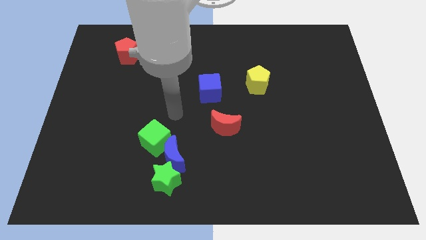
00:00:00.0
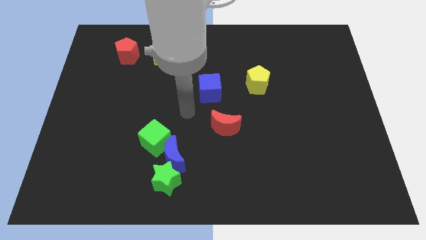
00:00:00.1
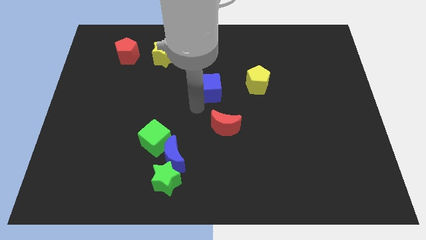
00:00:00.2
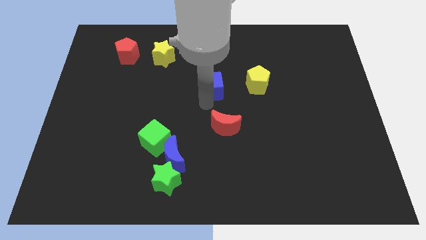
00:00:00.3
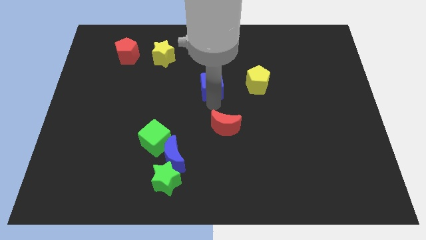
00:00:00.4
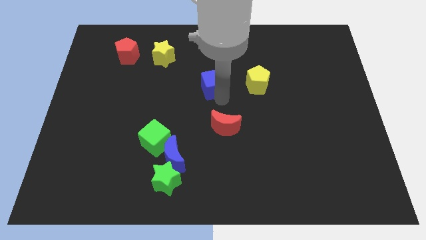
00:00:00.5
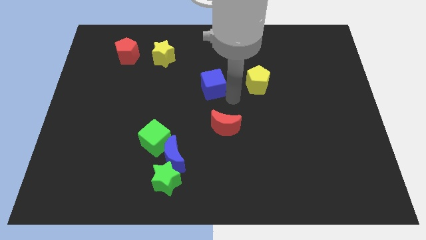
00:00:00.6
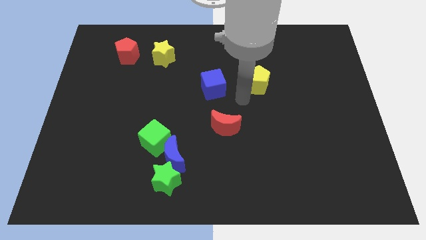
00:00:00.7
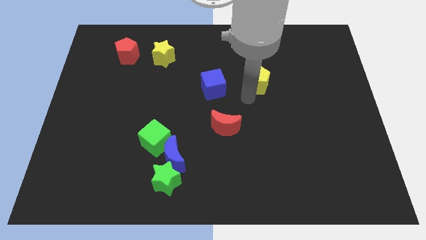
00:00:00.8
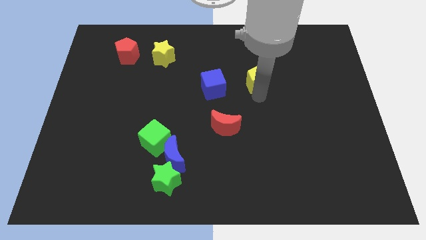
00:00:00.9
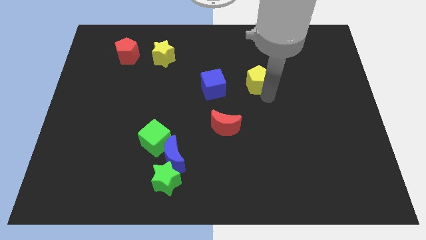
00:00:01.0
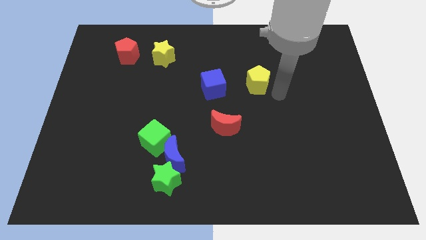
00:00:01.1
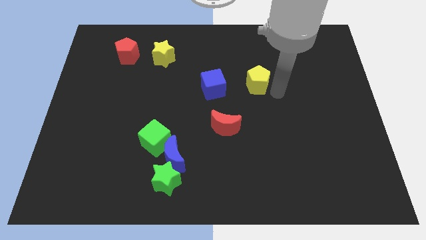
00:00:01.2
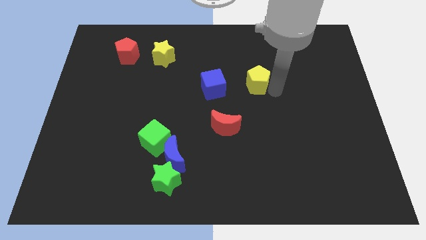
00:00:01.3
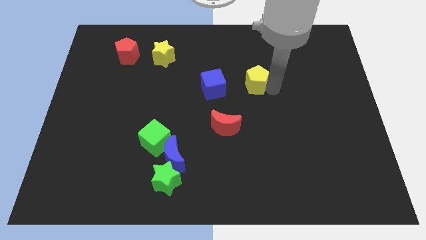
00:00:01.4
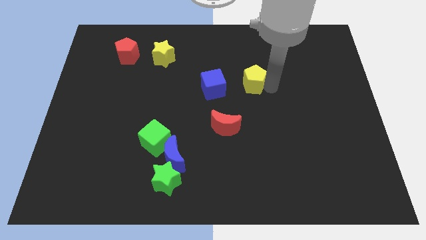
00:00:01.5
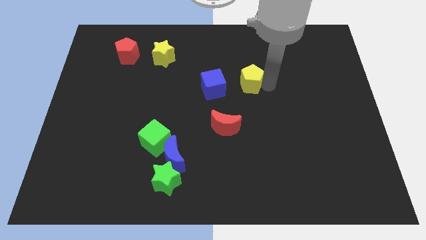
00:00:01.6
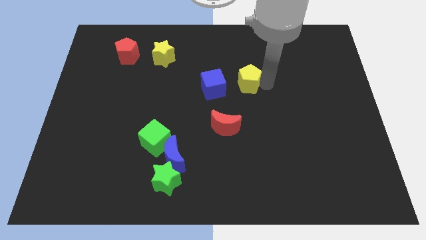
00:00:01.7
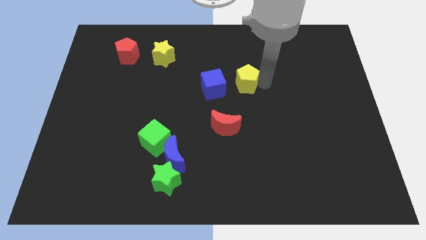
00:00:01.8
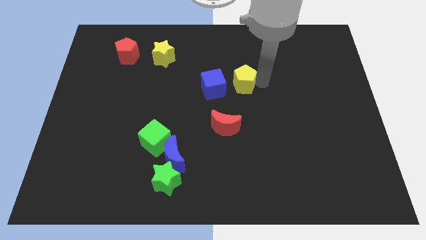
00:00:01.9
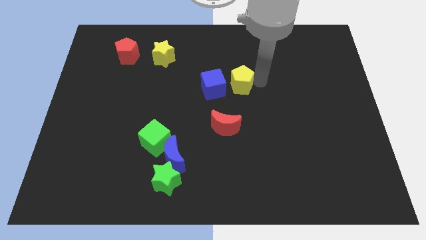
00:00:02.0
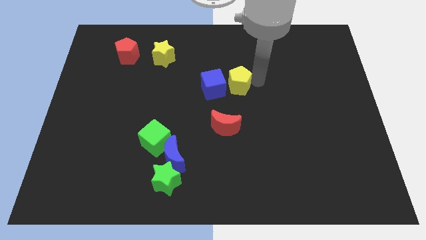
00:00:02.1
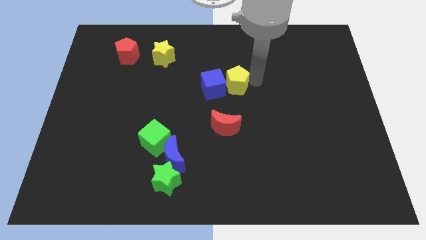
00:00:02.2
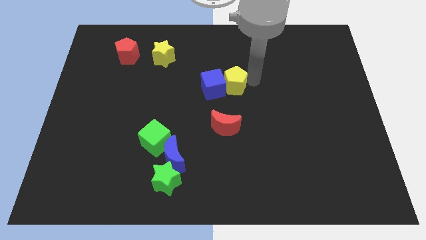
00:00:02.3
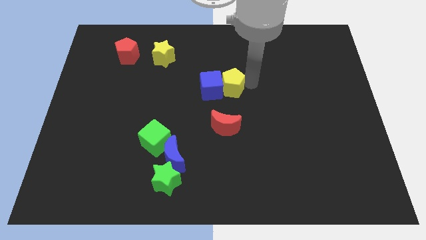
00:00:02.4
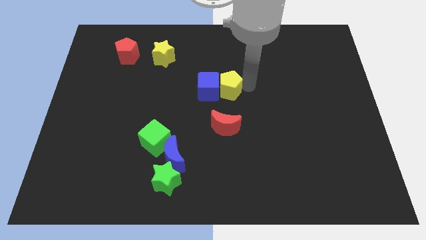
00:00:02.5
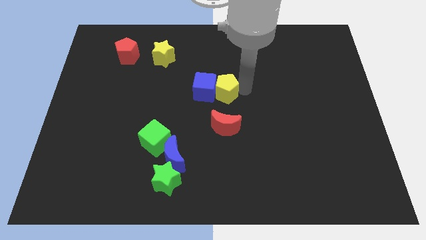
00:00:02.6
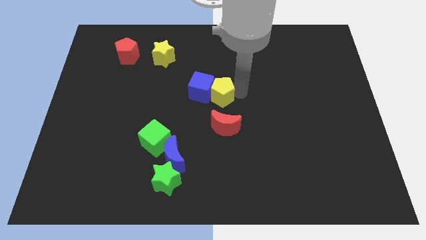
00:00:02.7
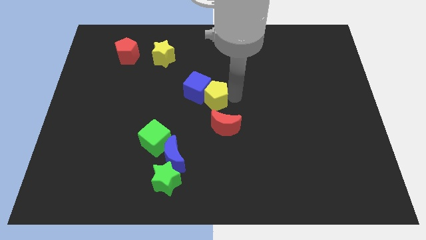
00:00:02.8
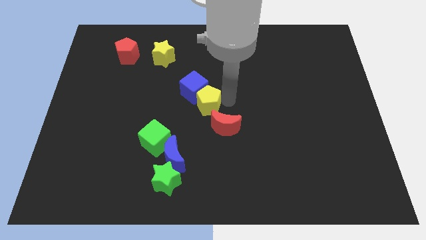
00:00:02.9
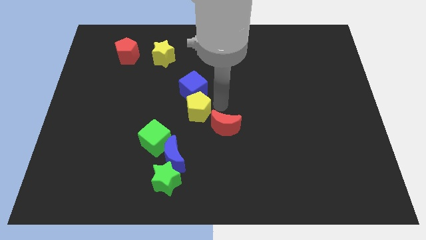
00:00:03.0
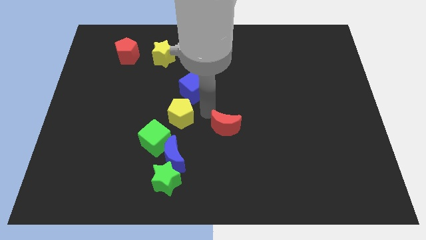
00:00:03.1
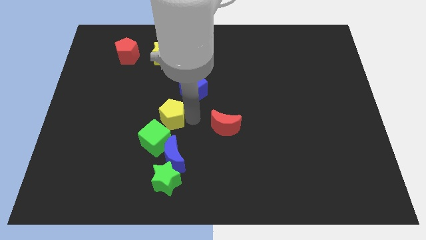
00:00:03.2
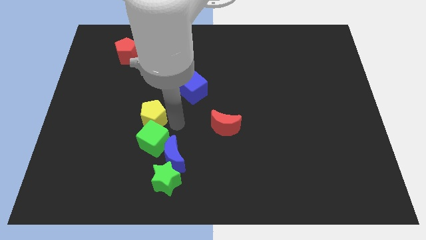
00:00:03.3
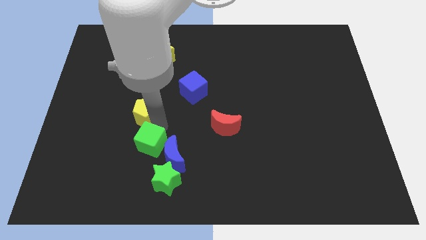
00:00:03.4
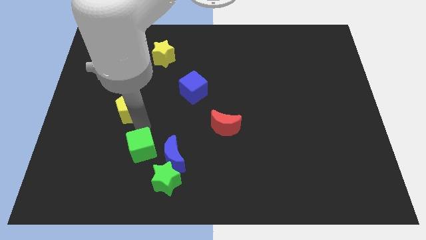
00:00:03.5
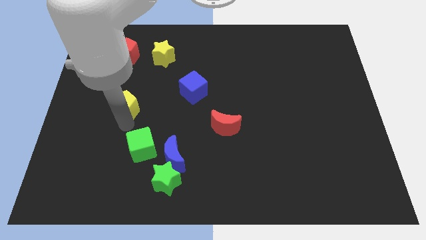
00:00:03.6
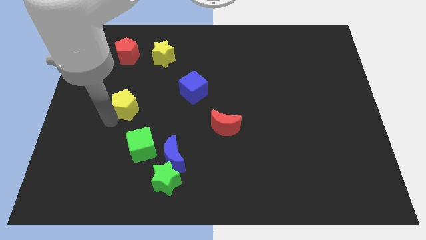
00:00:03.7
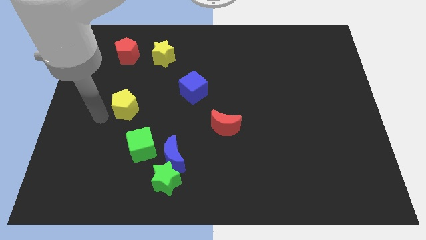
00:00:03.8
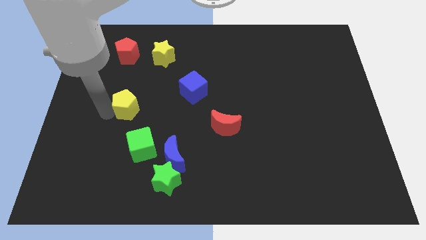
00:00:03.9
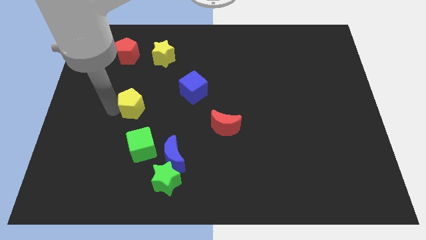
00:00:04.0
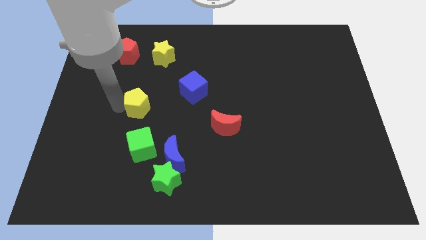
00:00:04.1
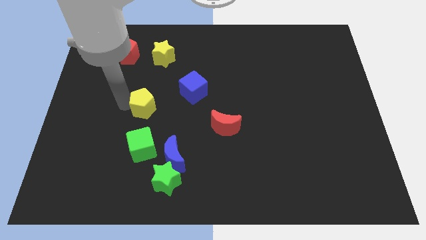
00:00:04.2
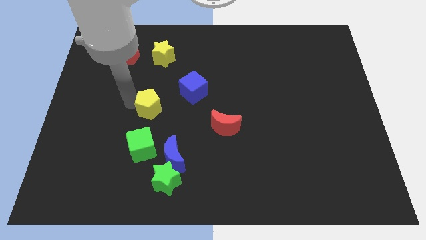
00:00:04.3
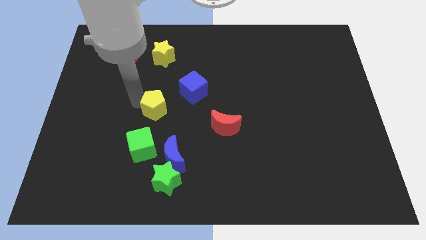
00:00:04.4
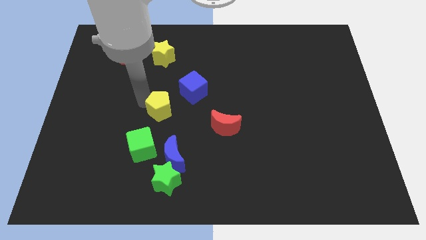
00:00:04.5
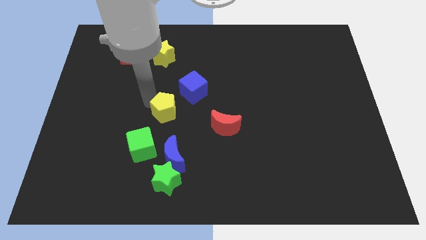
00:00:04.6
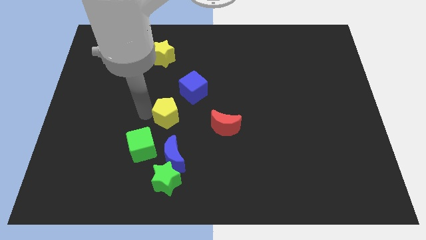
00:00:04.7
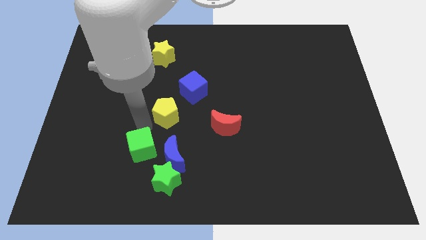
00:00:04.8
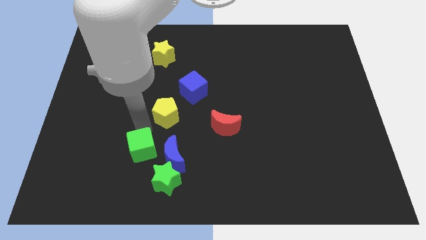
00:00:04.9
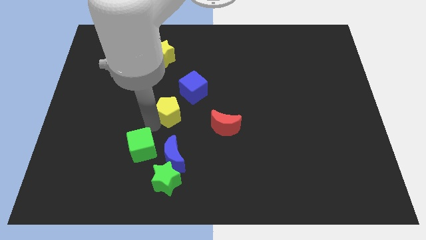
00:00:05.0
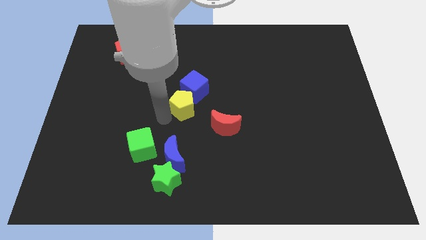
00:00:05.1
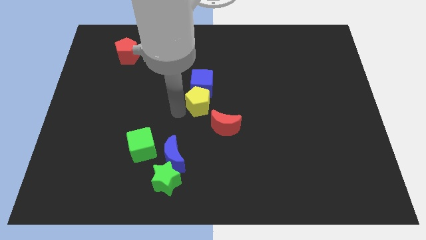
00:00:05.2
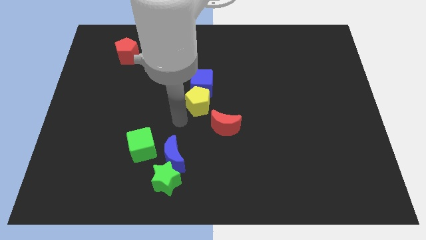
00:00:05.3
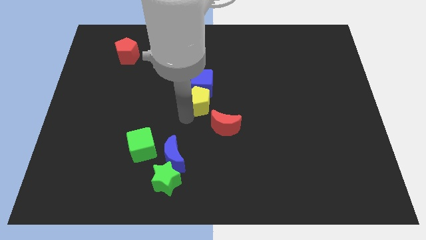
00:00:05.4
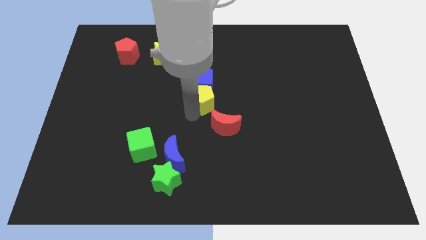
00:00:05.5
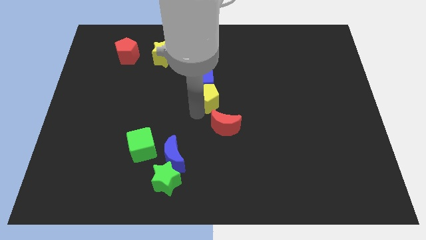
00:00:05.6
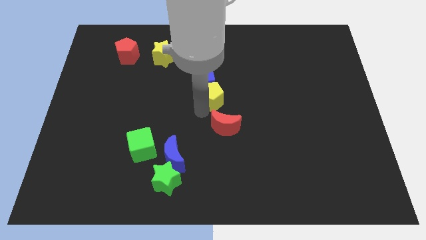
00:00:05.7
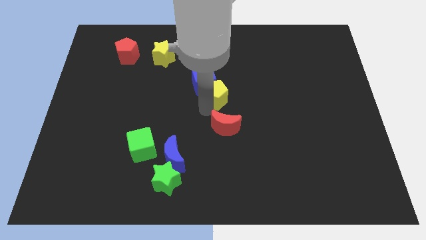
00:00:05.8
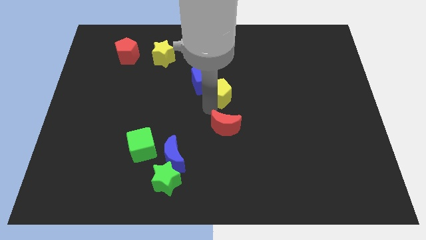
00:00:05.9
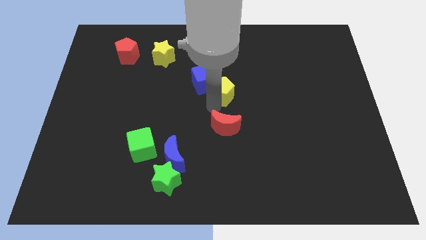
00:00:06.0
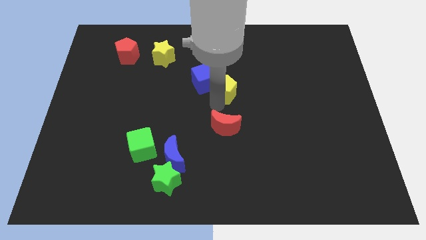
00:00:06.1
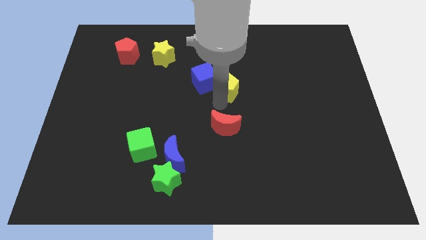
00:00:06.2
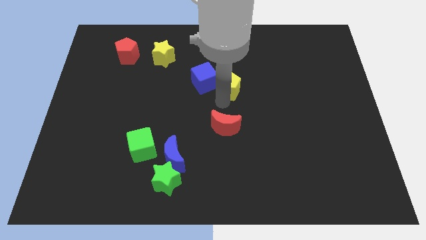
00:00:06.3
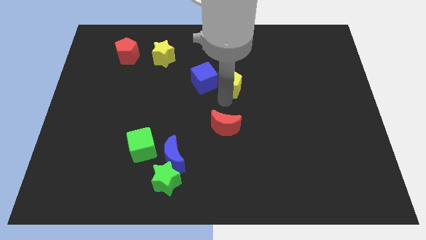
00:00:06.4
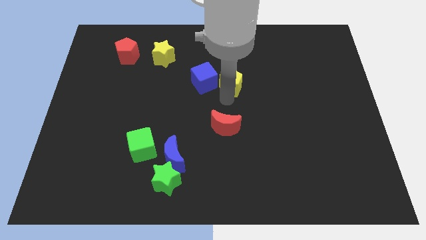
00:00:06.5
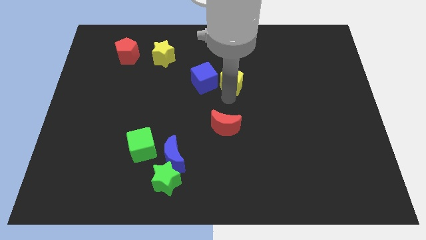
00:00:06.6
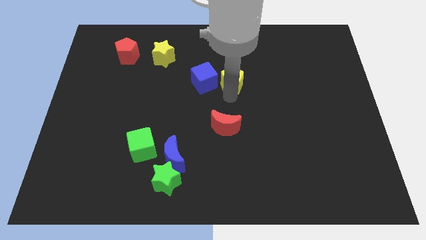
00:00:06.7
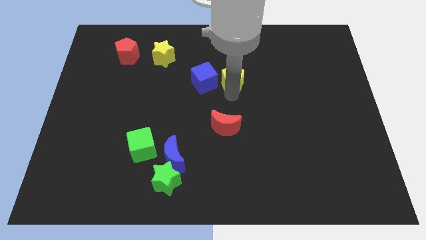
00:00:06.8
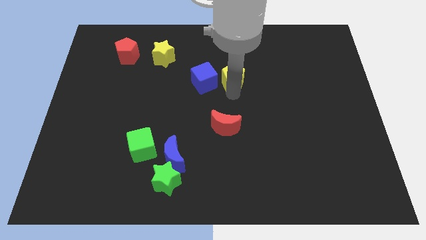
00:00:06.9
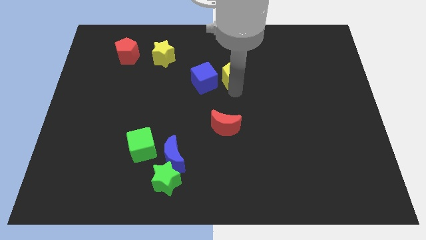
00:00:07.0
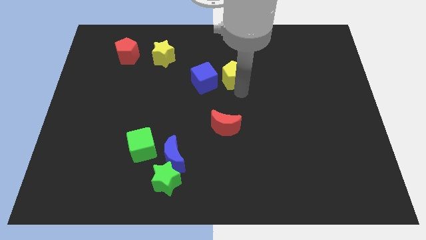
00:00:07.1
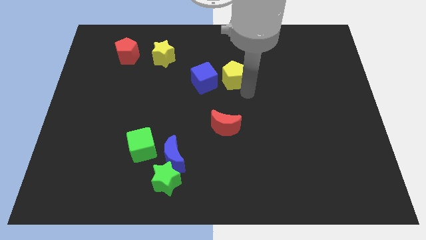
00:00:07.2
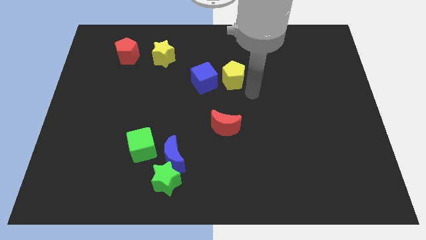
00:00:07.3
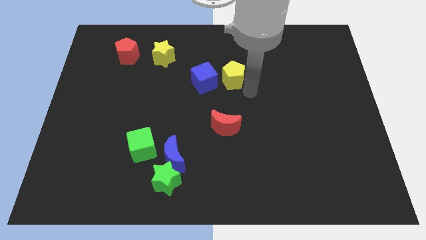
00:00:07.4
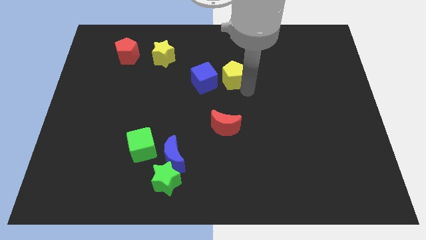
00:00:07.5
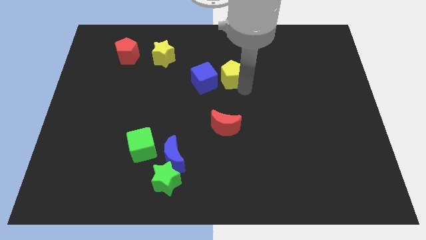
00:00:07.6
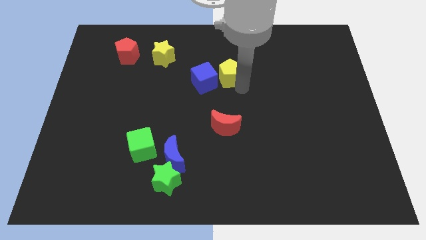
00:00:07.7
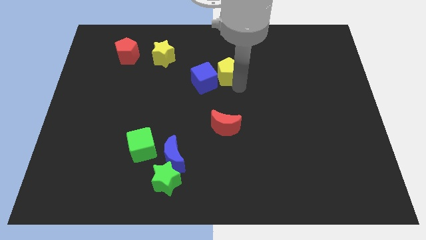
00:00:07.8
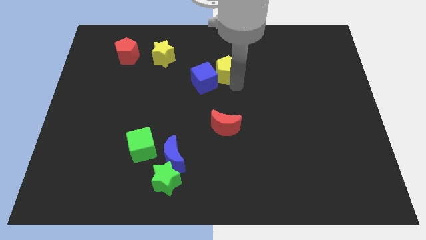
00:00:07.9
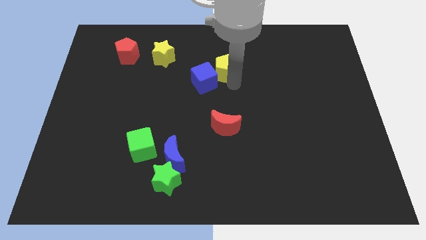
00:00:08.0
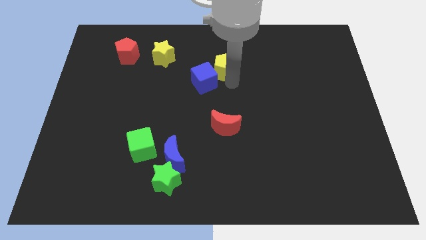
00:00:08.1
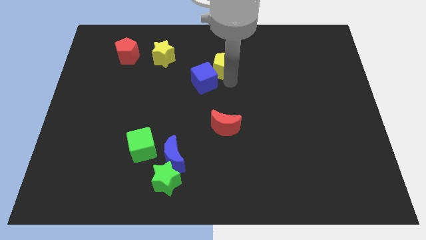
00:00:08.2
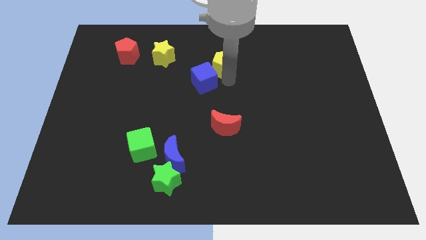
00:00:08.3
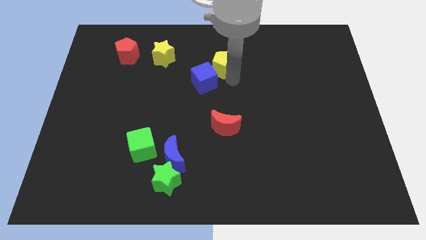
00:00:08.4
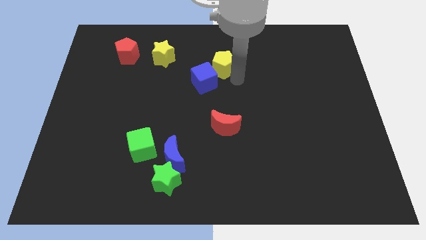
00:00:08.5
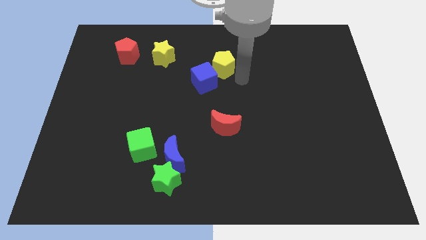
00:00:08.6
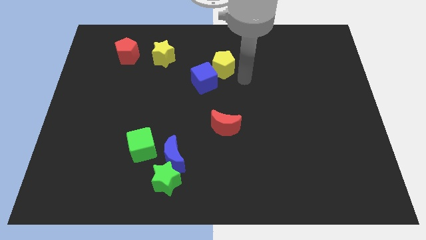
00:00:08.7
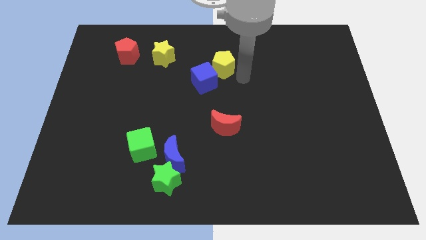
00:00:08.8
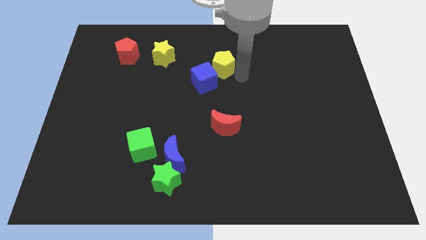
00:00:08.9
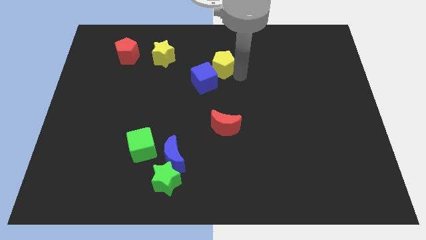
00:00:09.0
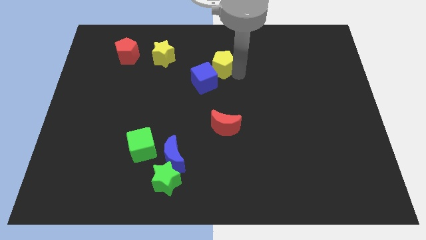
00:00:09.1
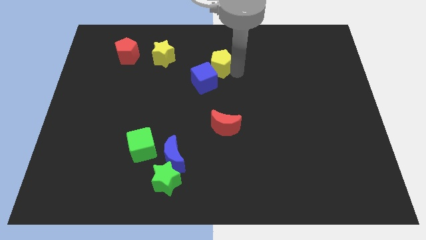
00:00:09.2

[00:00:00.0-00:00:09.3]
push the yellow pentagon to the right of the yellow star
